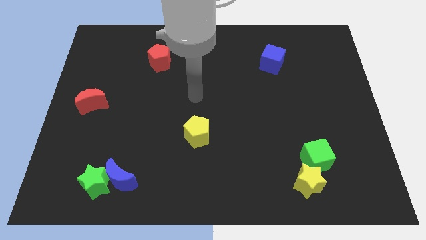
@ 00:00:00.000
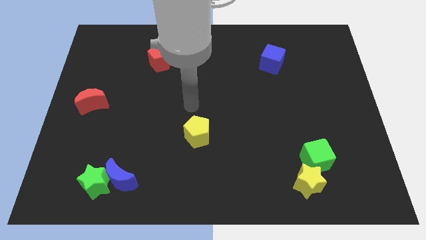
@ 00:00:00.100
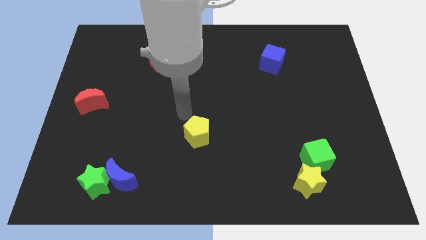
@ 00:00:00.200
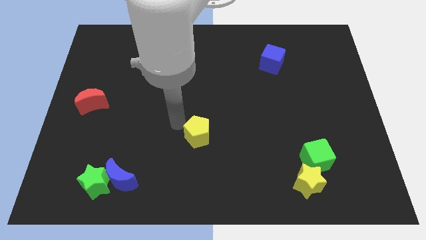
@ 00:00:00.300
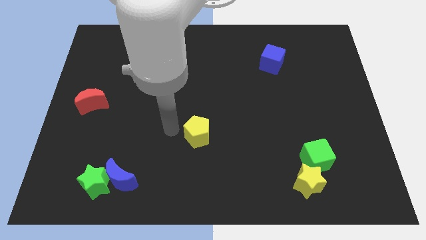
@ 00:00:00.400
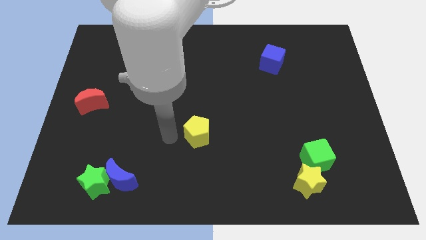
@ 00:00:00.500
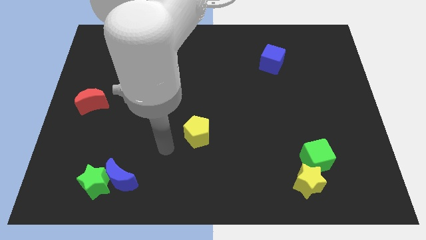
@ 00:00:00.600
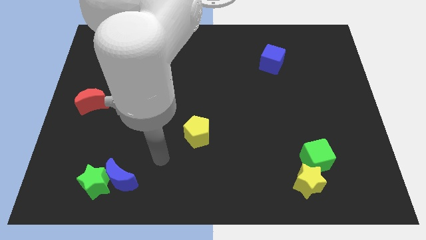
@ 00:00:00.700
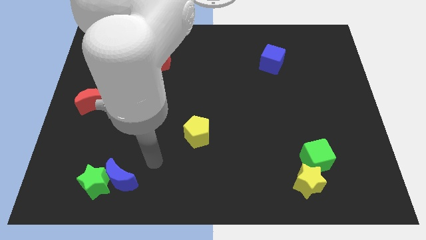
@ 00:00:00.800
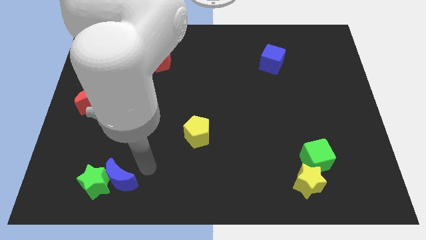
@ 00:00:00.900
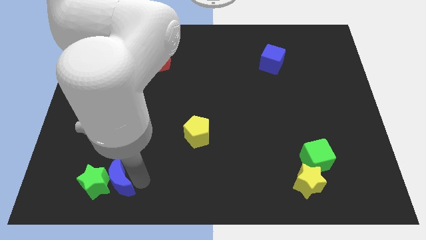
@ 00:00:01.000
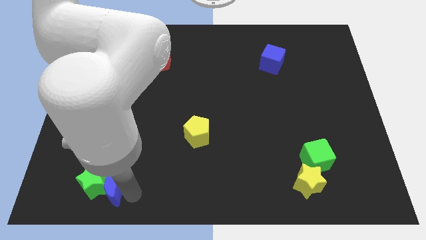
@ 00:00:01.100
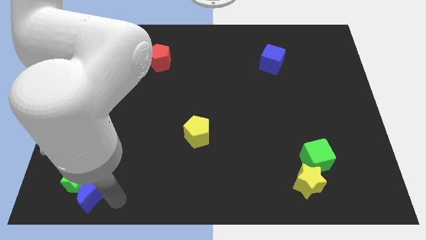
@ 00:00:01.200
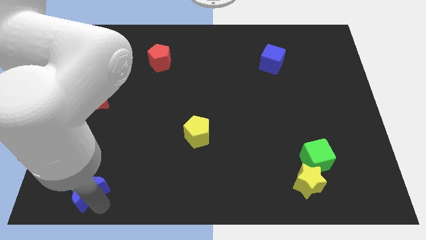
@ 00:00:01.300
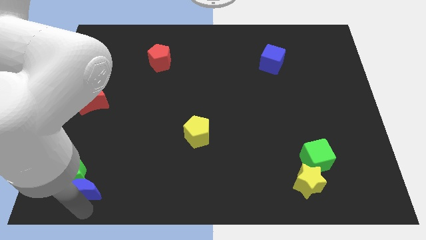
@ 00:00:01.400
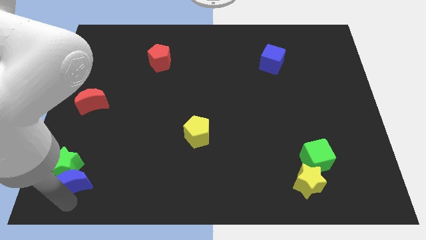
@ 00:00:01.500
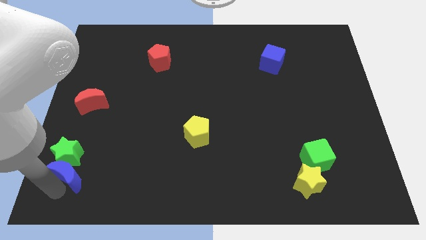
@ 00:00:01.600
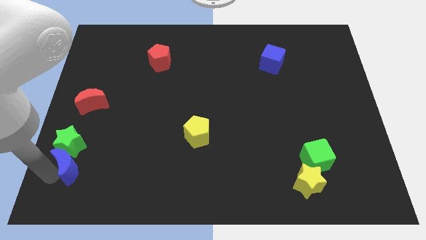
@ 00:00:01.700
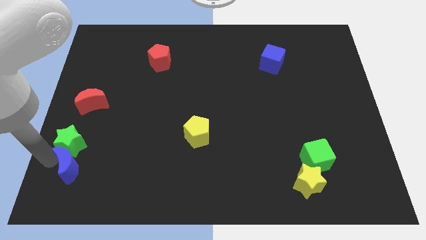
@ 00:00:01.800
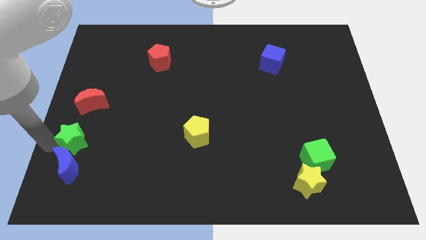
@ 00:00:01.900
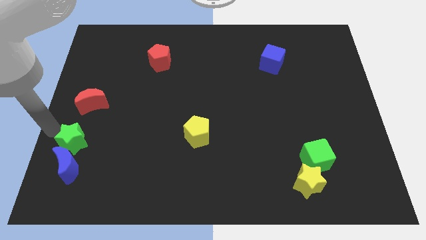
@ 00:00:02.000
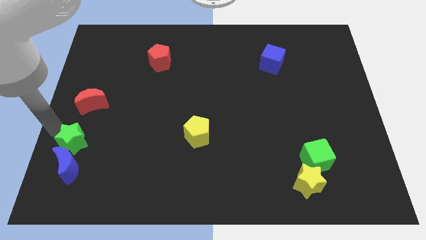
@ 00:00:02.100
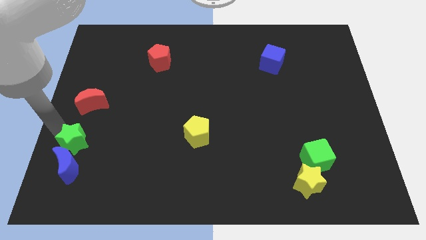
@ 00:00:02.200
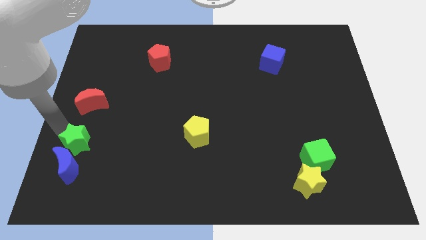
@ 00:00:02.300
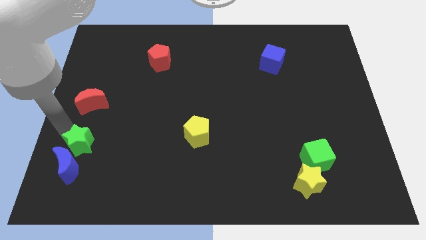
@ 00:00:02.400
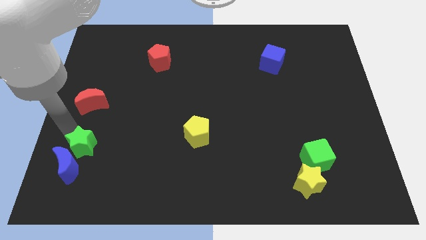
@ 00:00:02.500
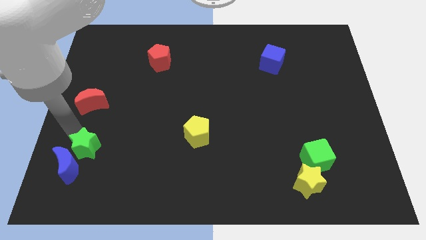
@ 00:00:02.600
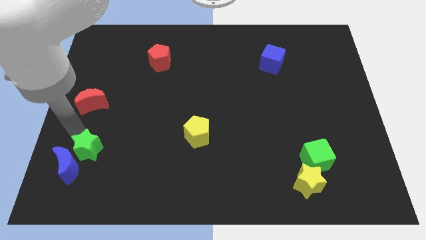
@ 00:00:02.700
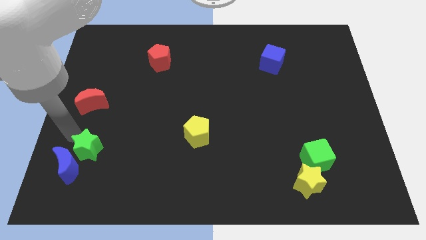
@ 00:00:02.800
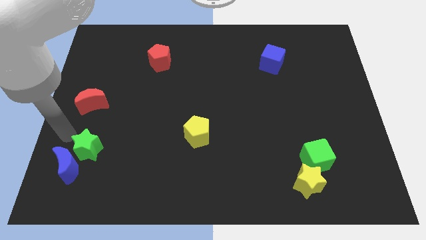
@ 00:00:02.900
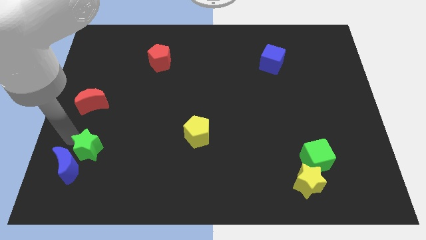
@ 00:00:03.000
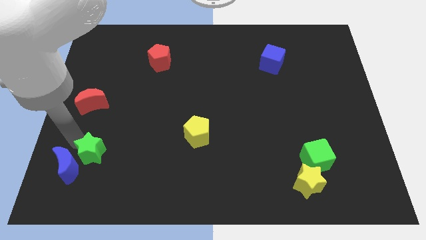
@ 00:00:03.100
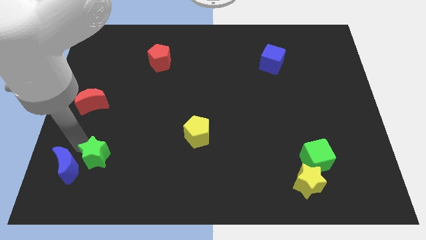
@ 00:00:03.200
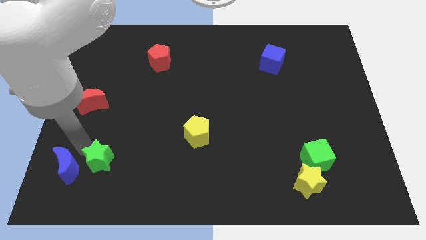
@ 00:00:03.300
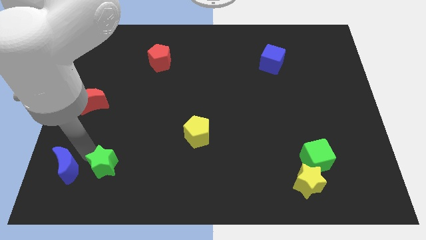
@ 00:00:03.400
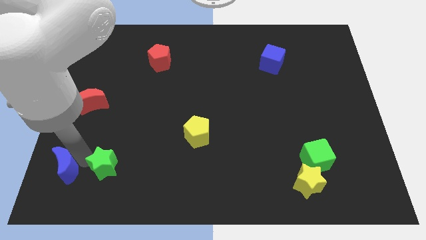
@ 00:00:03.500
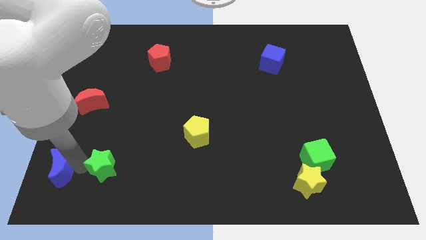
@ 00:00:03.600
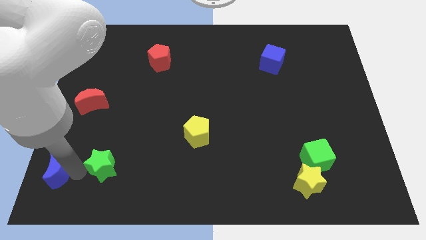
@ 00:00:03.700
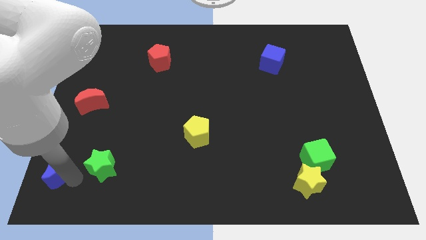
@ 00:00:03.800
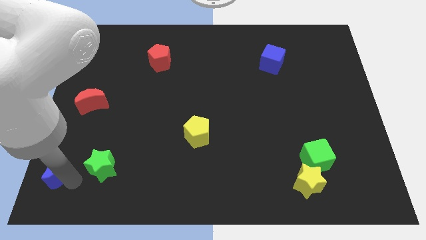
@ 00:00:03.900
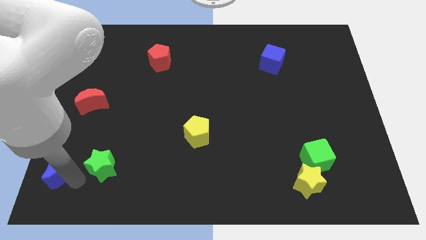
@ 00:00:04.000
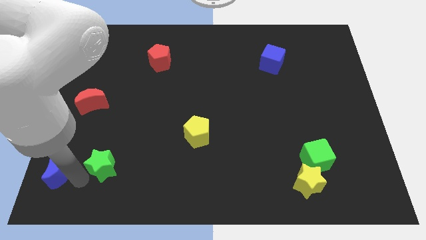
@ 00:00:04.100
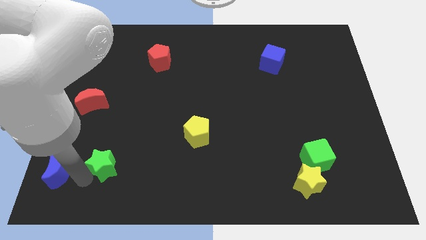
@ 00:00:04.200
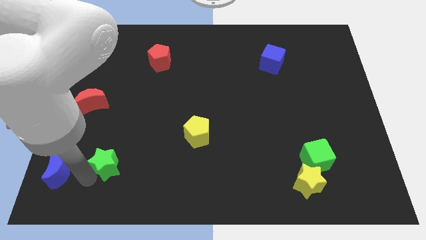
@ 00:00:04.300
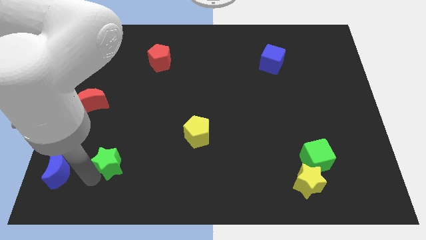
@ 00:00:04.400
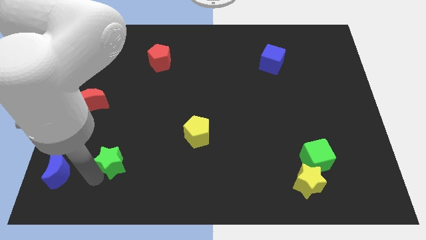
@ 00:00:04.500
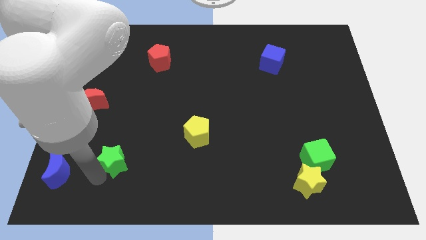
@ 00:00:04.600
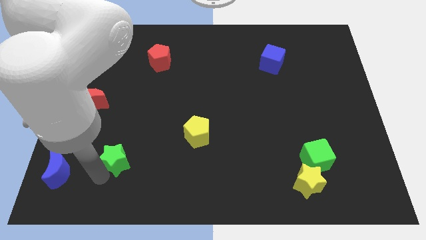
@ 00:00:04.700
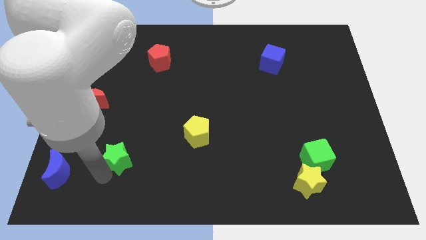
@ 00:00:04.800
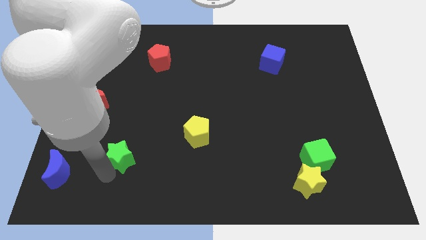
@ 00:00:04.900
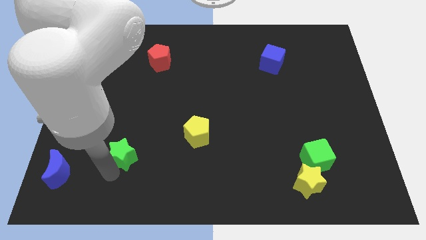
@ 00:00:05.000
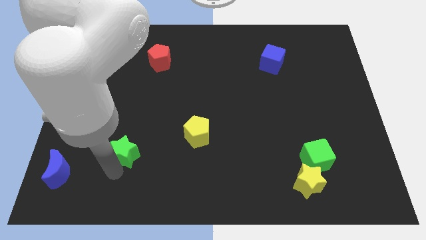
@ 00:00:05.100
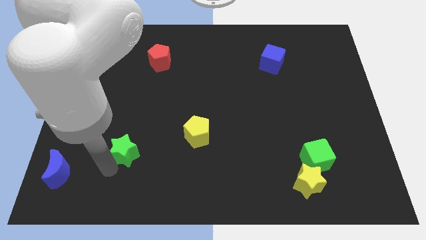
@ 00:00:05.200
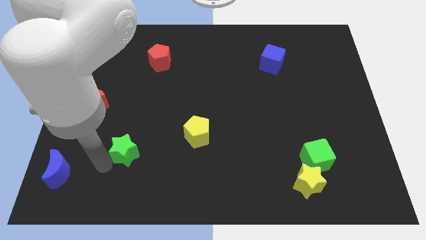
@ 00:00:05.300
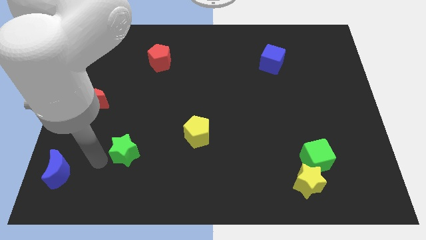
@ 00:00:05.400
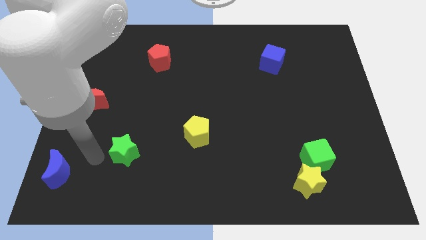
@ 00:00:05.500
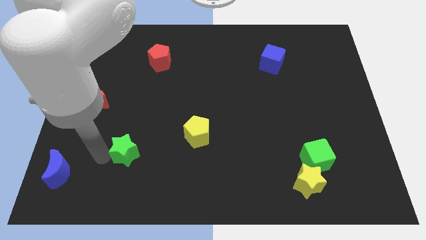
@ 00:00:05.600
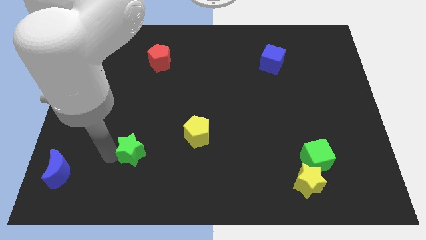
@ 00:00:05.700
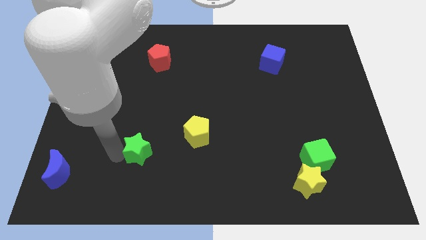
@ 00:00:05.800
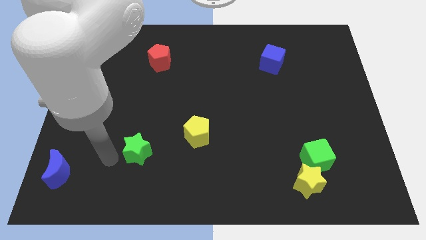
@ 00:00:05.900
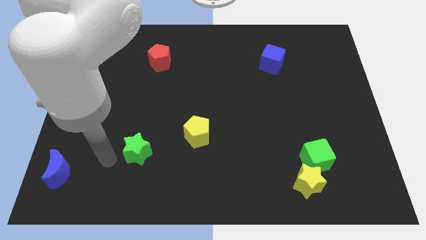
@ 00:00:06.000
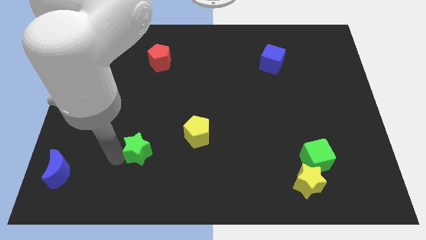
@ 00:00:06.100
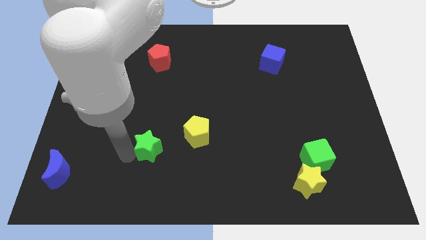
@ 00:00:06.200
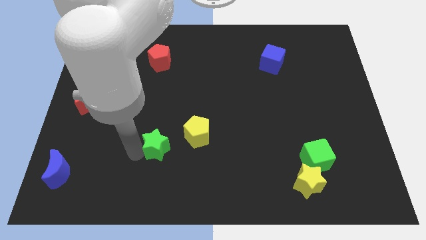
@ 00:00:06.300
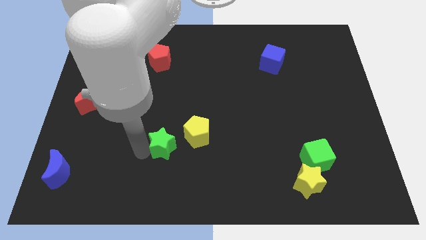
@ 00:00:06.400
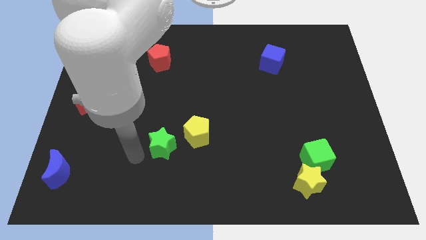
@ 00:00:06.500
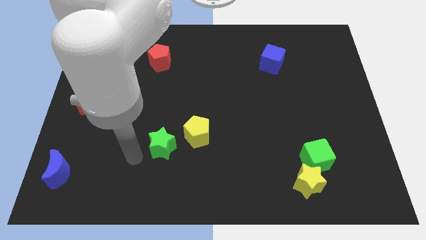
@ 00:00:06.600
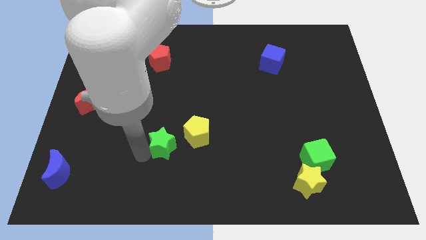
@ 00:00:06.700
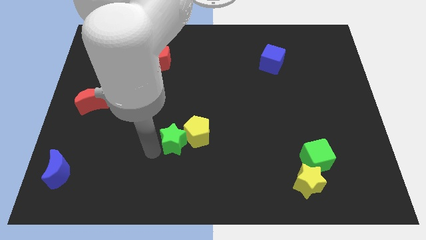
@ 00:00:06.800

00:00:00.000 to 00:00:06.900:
push the green star to the yellow pentagon
